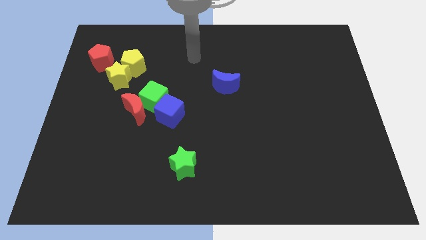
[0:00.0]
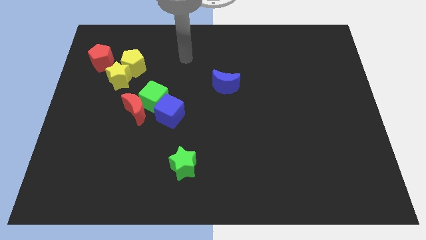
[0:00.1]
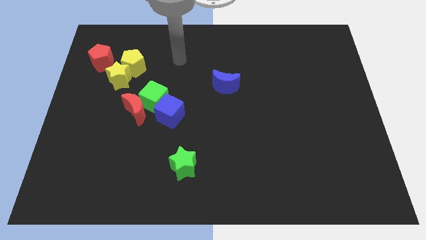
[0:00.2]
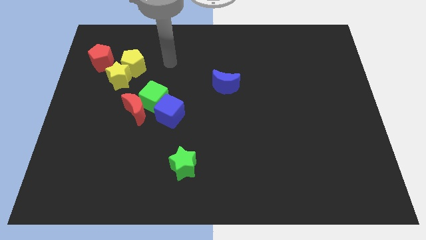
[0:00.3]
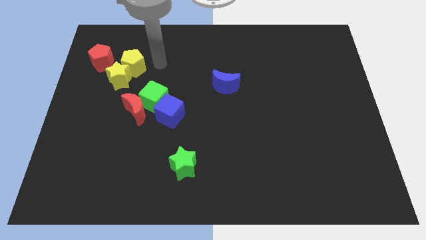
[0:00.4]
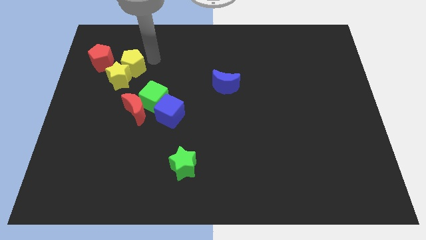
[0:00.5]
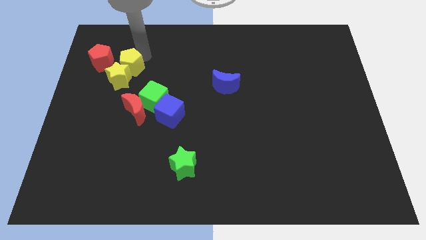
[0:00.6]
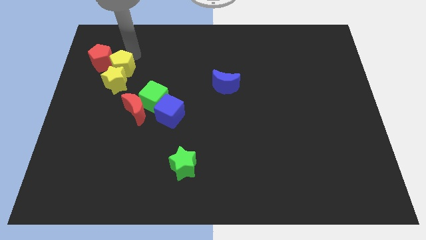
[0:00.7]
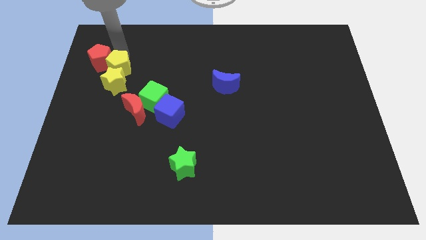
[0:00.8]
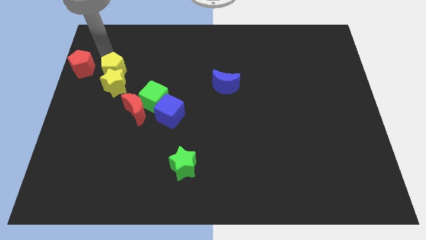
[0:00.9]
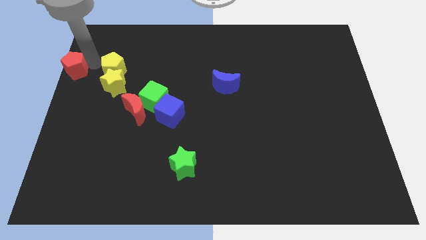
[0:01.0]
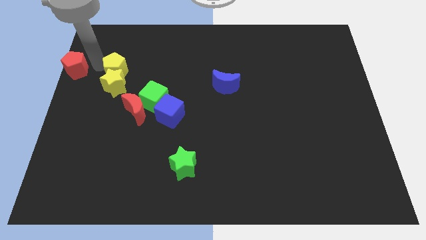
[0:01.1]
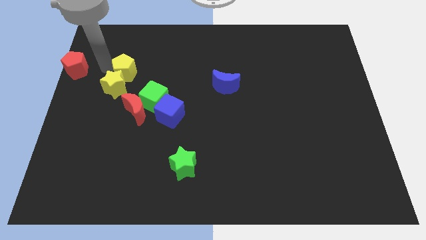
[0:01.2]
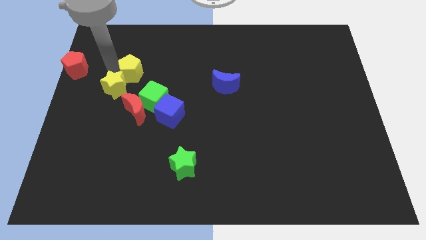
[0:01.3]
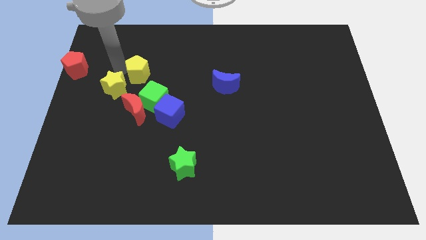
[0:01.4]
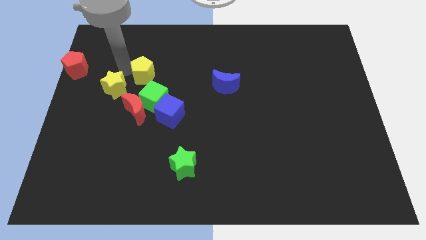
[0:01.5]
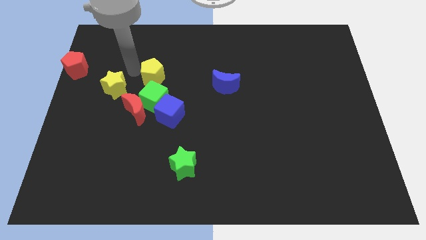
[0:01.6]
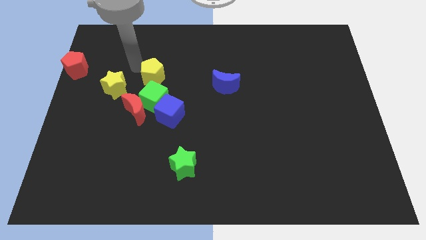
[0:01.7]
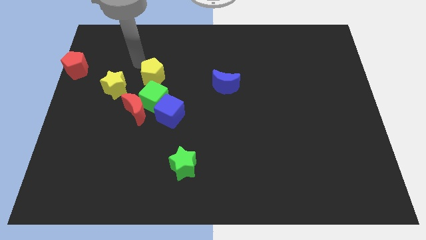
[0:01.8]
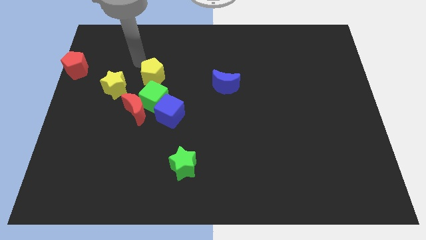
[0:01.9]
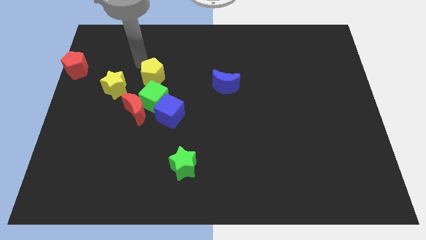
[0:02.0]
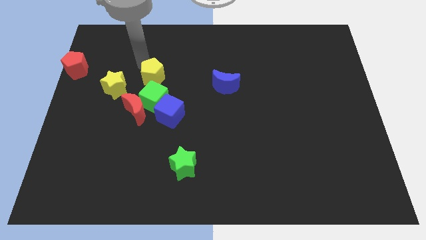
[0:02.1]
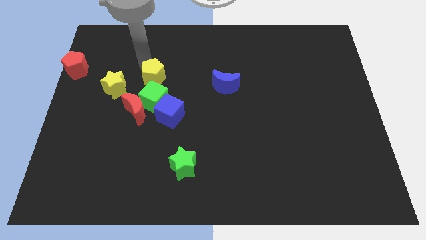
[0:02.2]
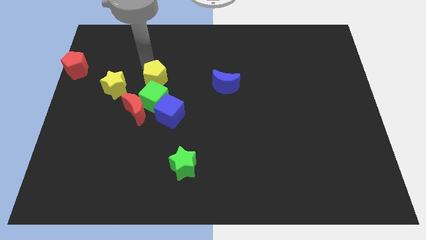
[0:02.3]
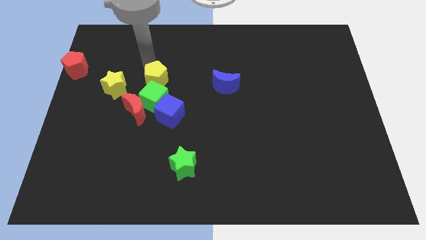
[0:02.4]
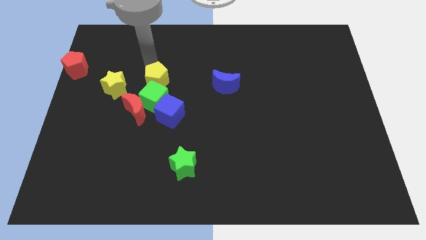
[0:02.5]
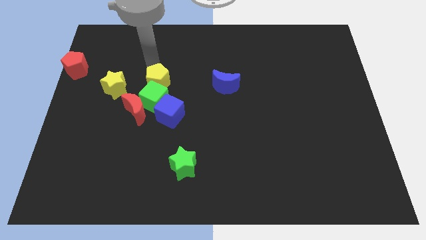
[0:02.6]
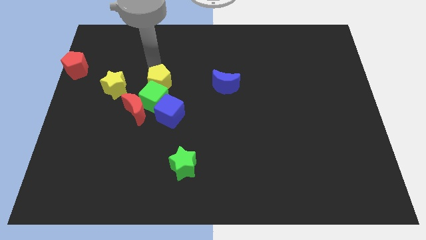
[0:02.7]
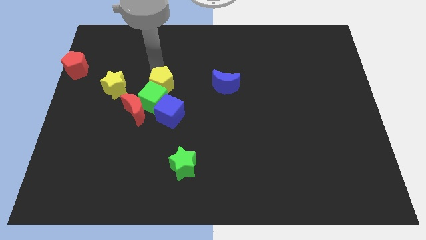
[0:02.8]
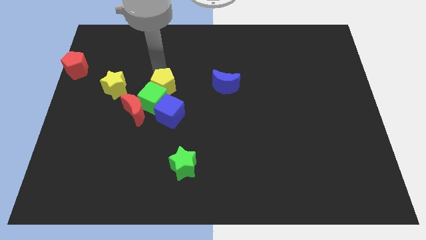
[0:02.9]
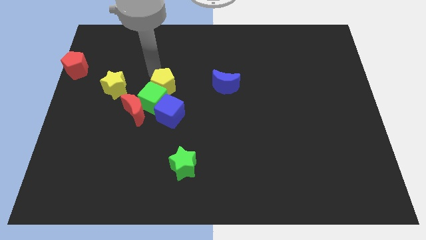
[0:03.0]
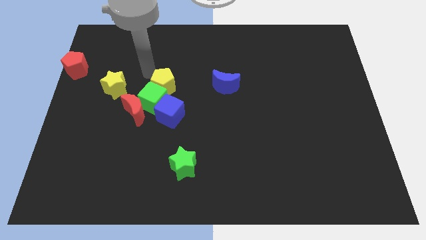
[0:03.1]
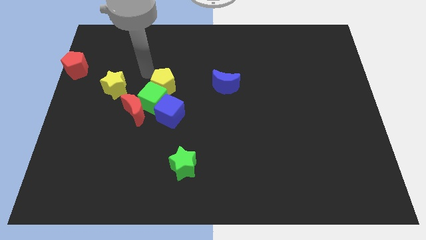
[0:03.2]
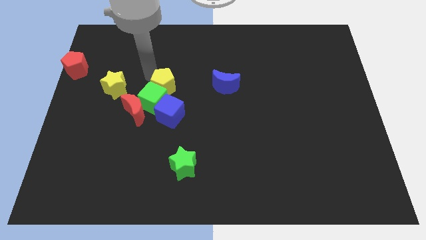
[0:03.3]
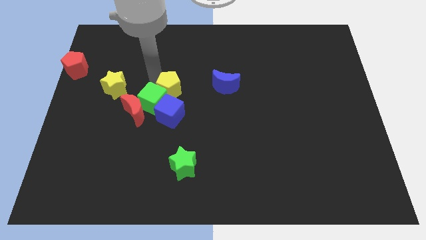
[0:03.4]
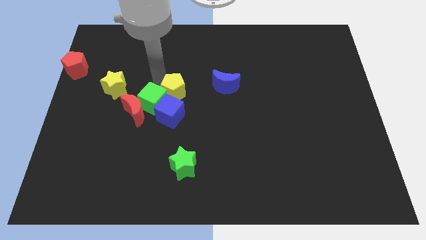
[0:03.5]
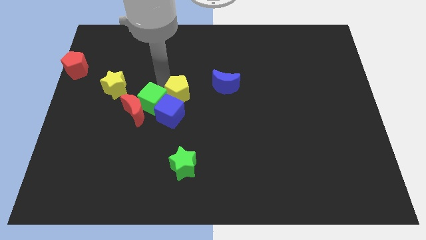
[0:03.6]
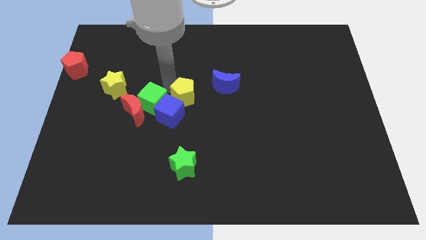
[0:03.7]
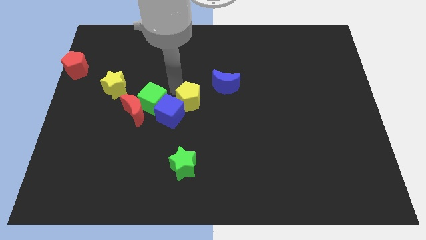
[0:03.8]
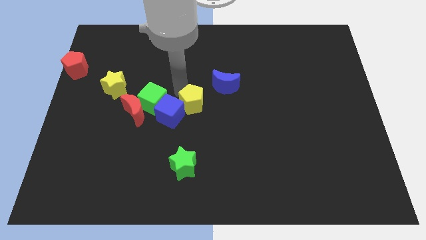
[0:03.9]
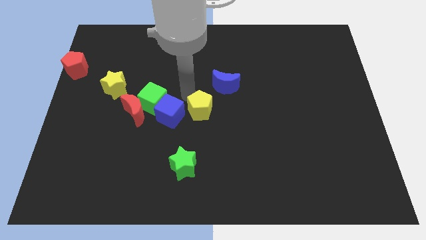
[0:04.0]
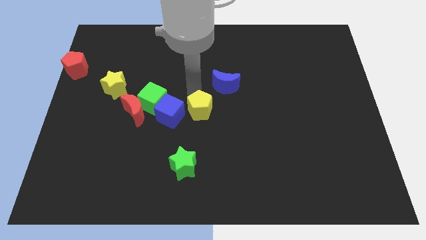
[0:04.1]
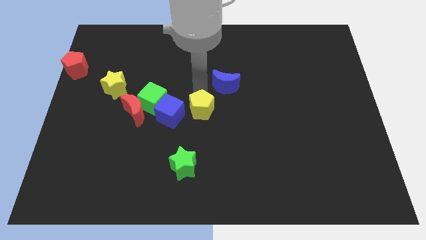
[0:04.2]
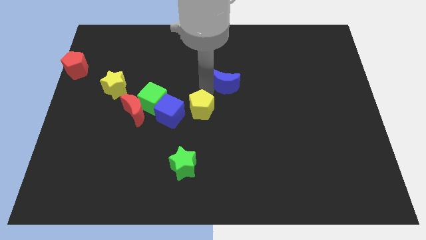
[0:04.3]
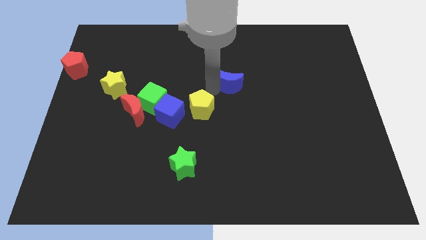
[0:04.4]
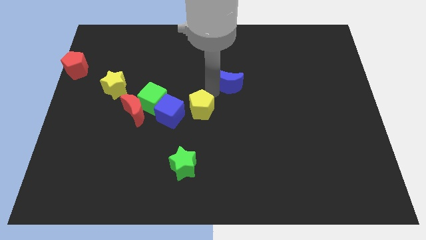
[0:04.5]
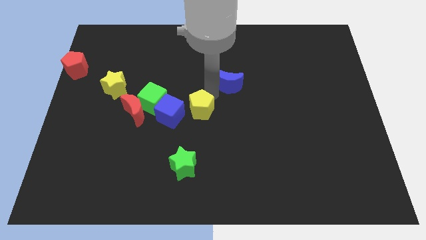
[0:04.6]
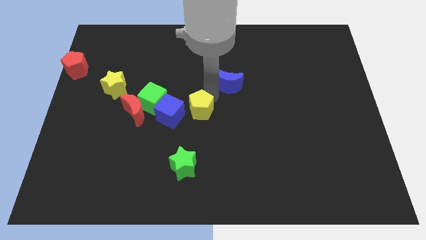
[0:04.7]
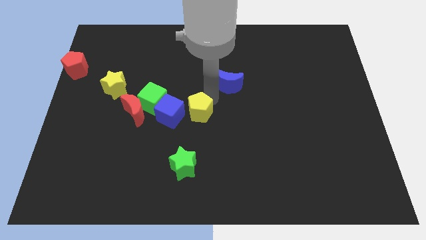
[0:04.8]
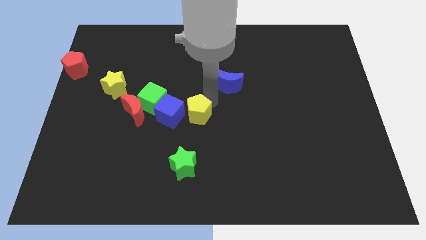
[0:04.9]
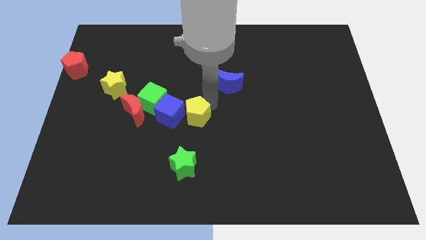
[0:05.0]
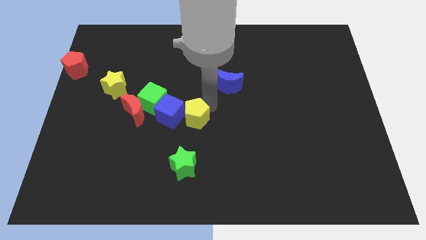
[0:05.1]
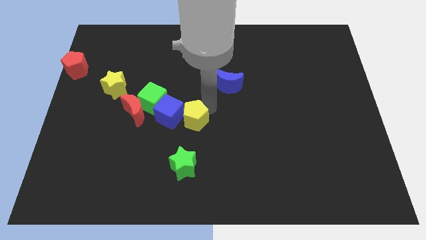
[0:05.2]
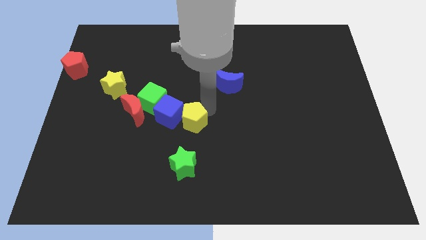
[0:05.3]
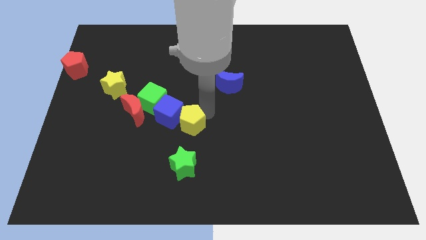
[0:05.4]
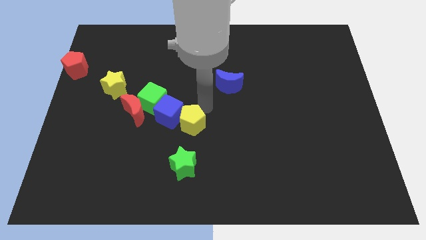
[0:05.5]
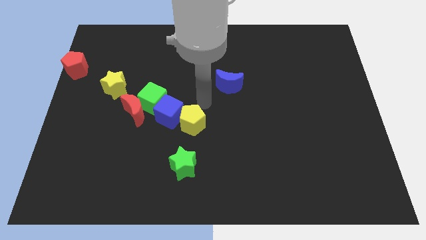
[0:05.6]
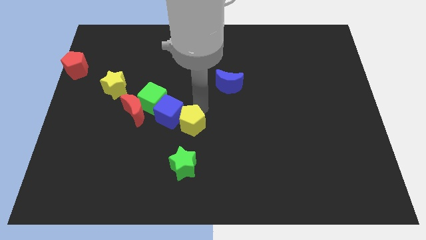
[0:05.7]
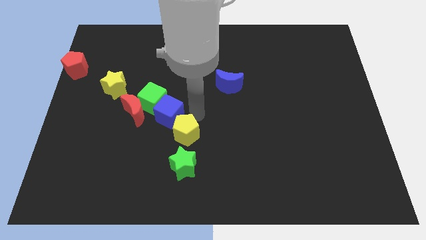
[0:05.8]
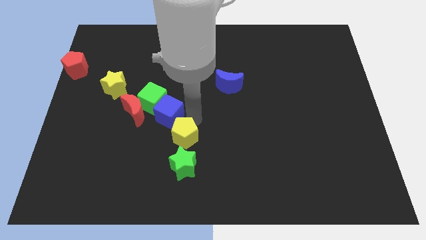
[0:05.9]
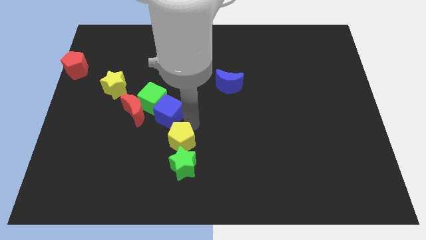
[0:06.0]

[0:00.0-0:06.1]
move the yellow pentagon to the green star

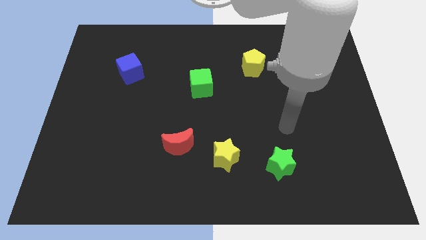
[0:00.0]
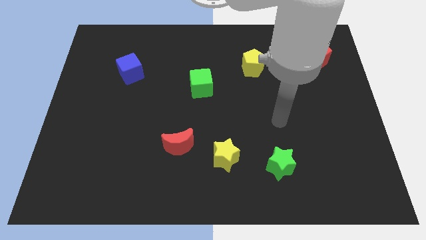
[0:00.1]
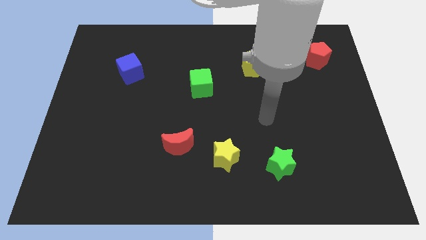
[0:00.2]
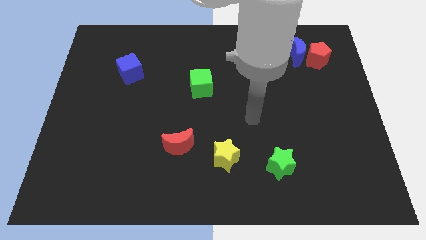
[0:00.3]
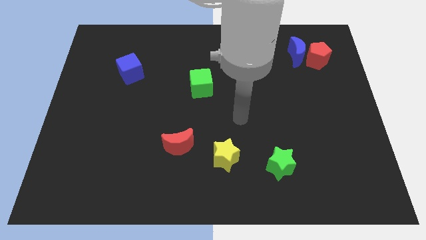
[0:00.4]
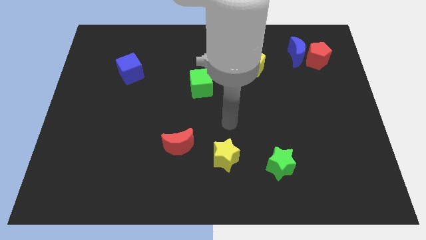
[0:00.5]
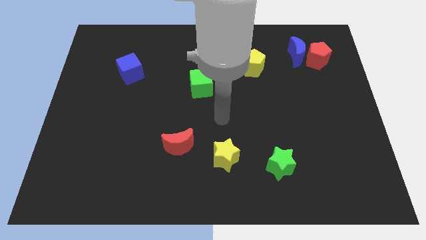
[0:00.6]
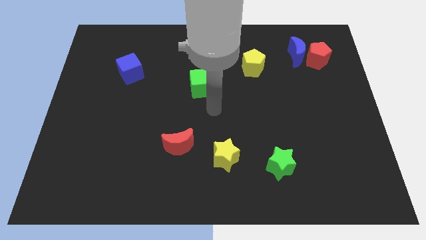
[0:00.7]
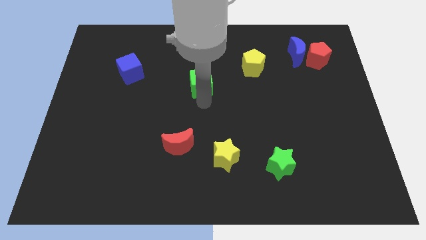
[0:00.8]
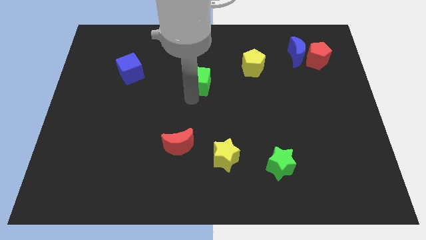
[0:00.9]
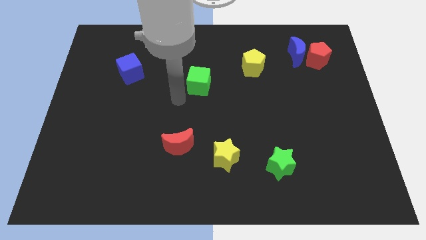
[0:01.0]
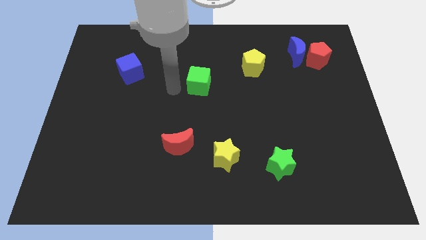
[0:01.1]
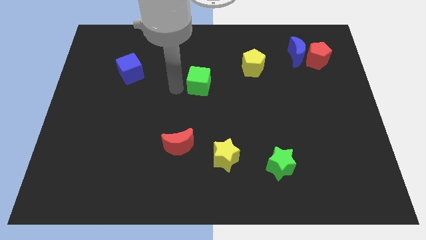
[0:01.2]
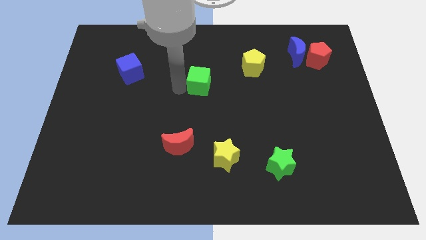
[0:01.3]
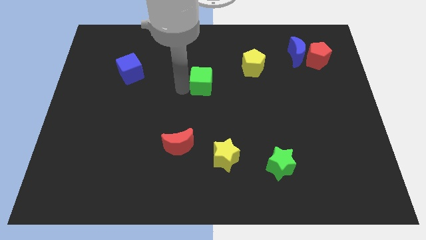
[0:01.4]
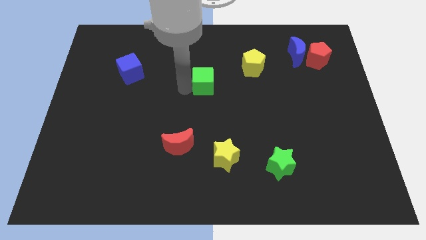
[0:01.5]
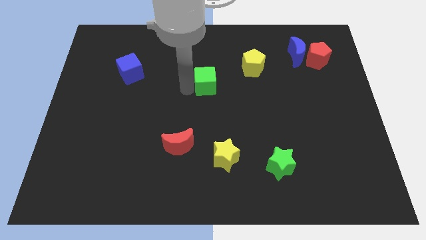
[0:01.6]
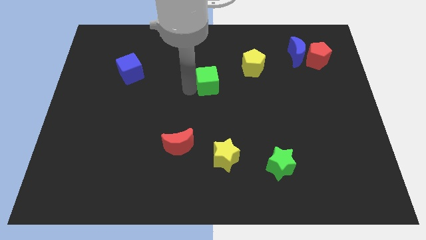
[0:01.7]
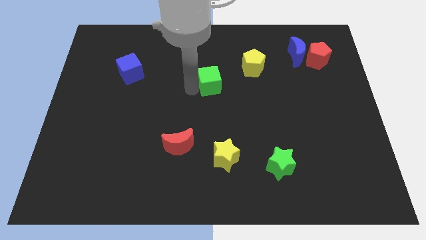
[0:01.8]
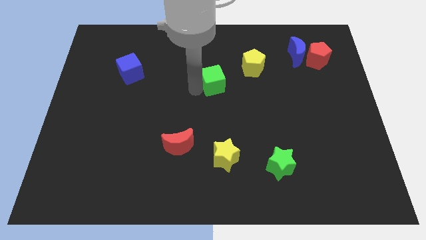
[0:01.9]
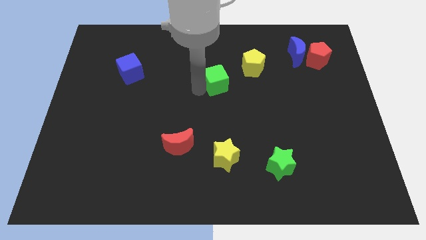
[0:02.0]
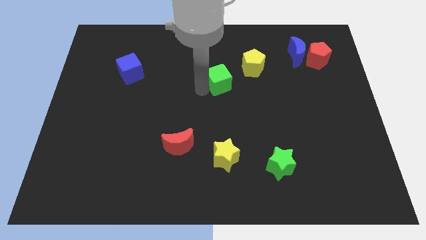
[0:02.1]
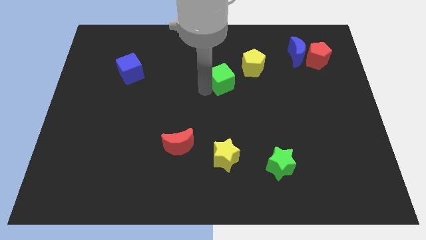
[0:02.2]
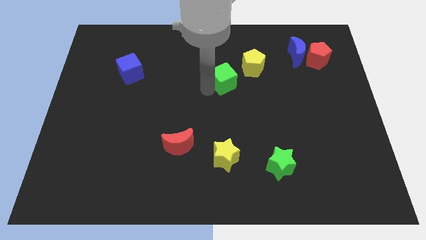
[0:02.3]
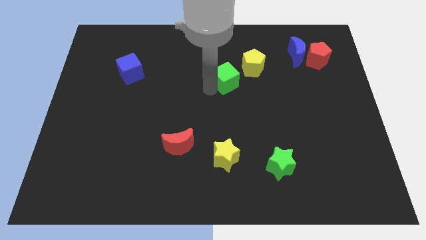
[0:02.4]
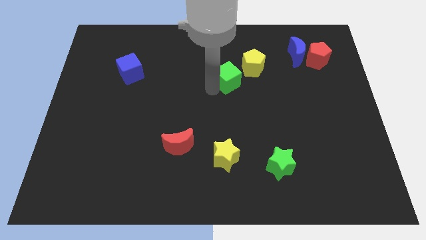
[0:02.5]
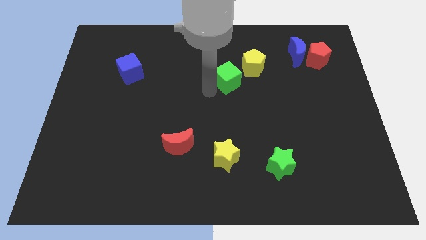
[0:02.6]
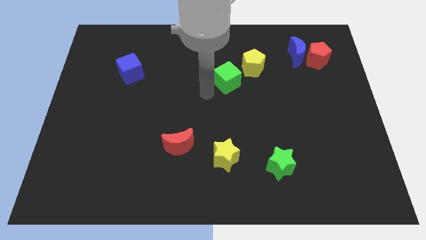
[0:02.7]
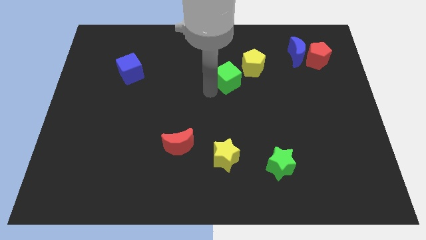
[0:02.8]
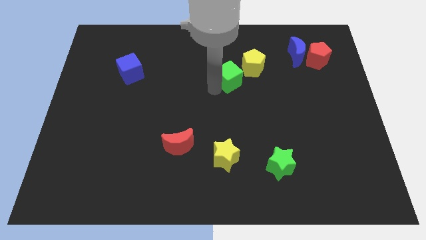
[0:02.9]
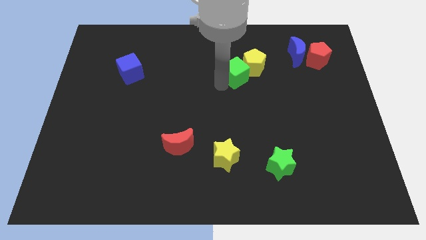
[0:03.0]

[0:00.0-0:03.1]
slide the green cube to the yellow pentagon
